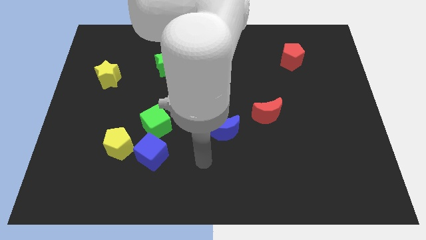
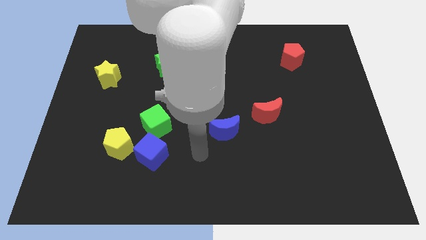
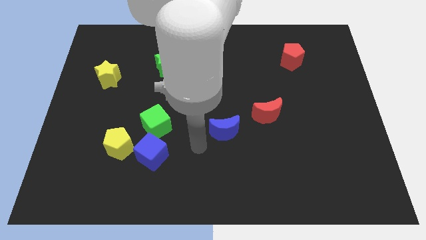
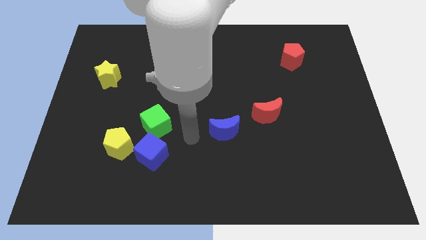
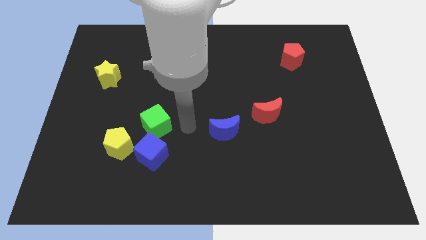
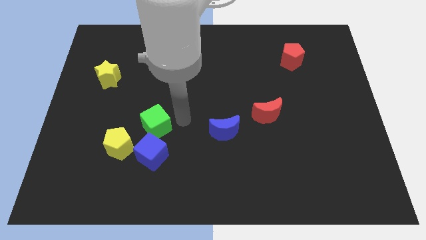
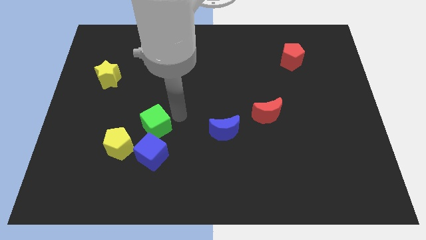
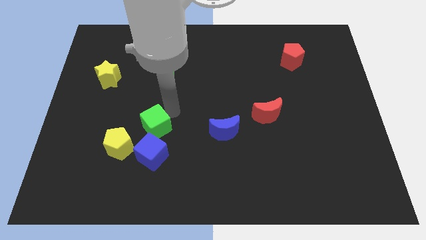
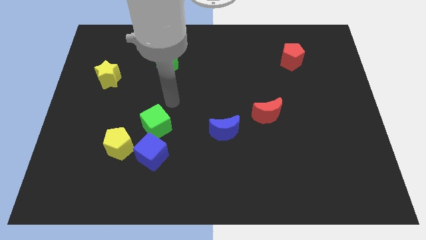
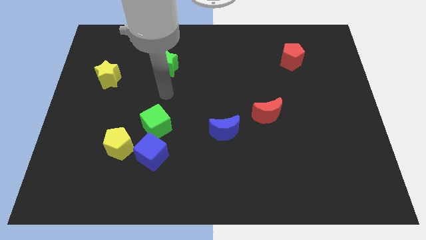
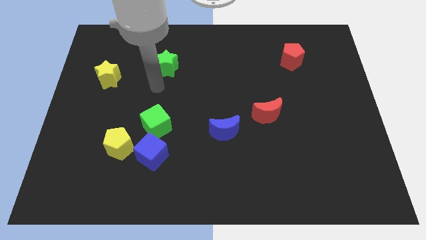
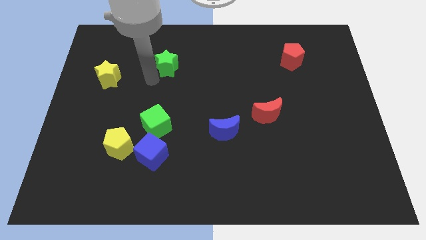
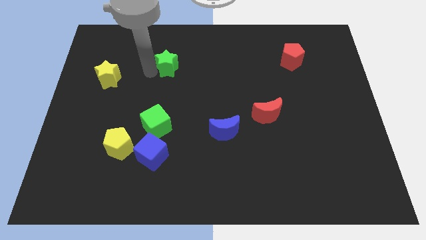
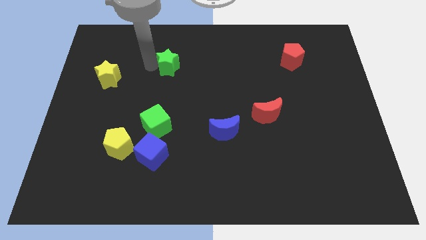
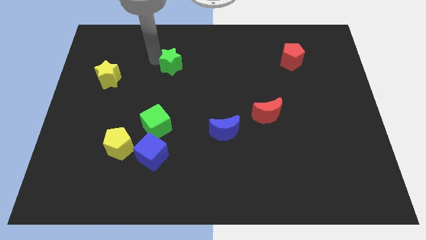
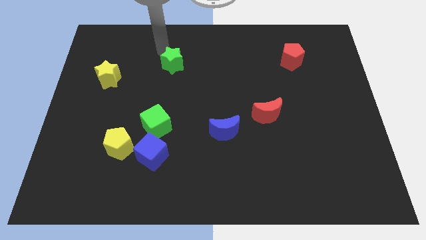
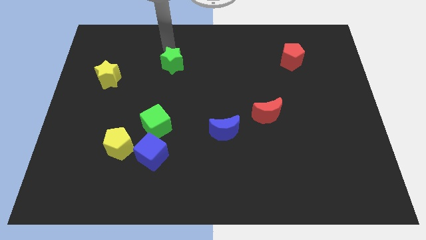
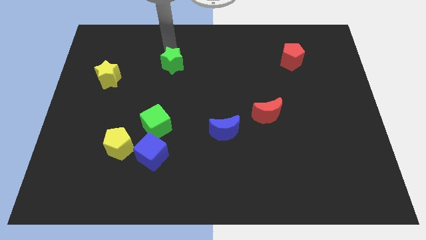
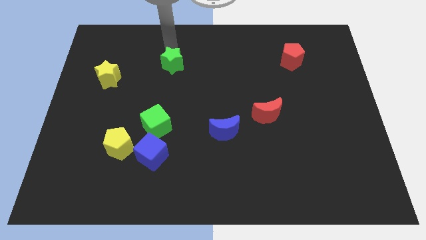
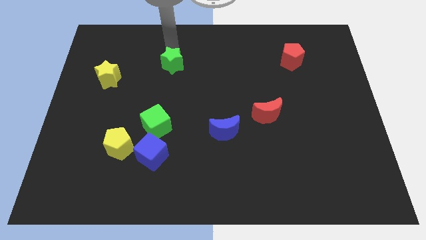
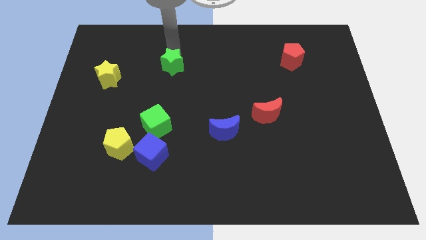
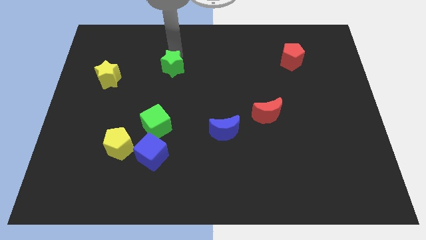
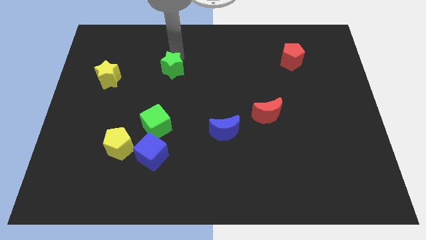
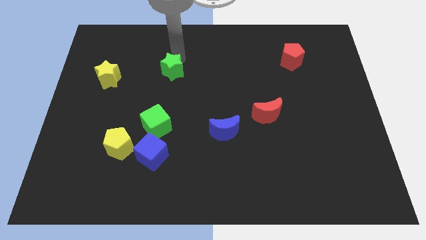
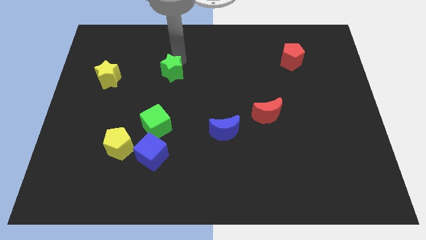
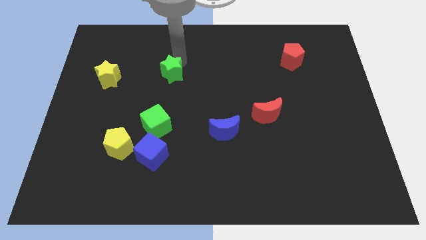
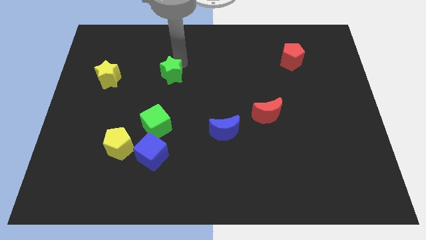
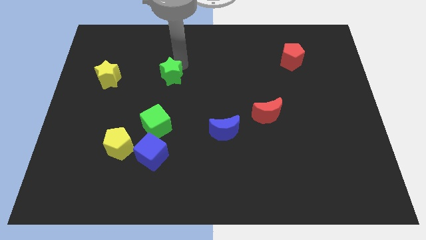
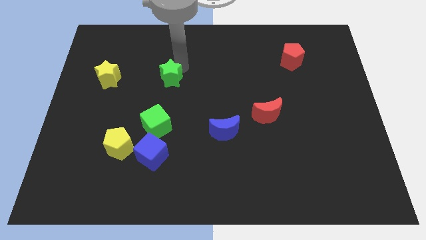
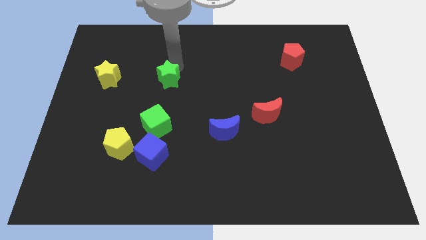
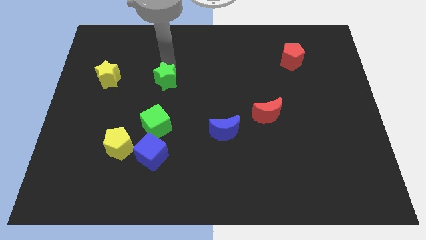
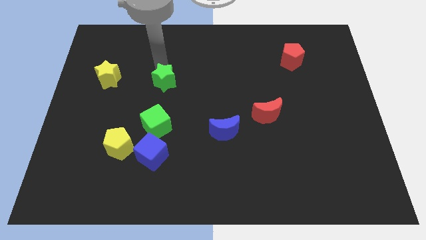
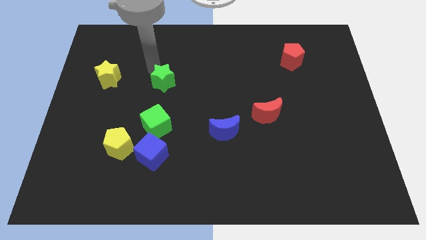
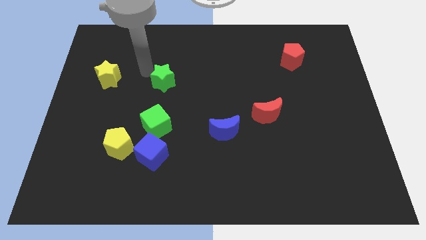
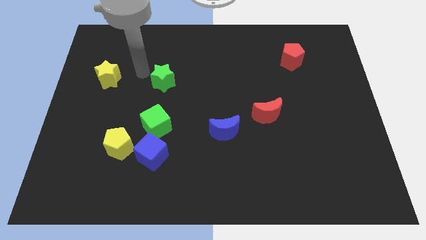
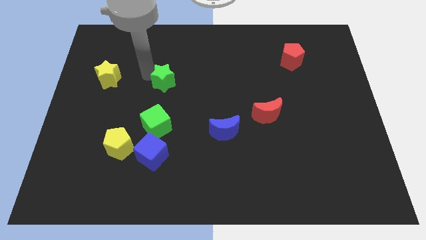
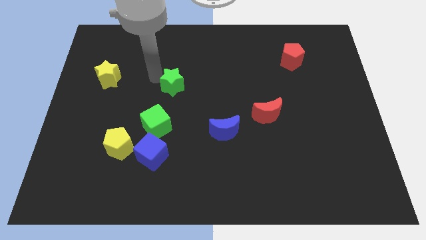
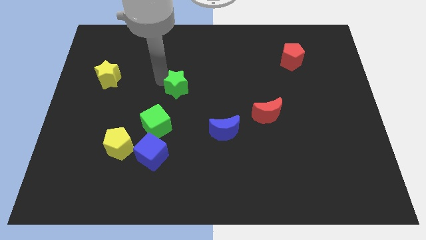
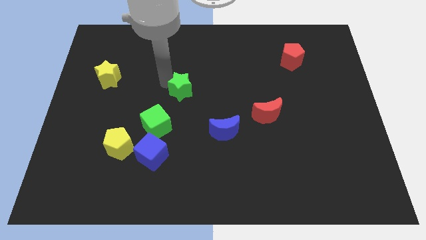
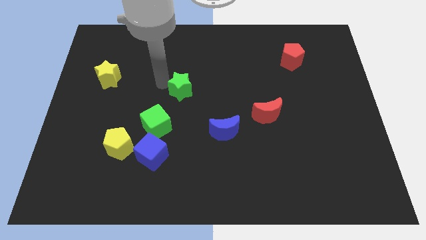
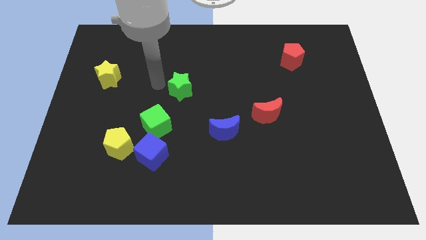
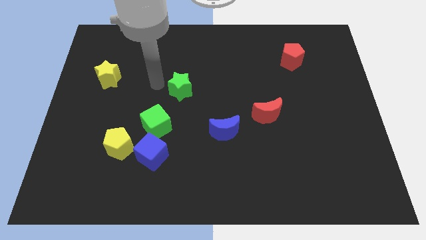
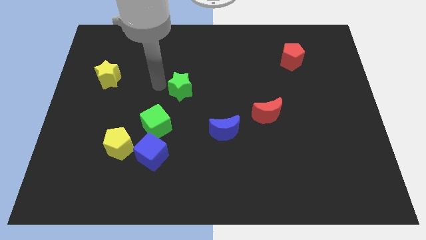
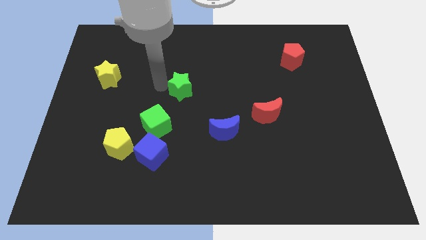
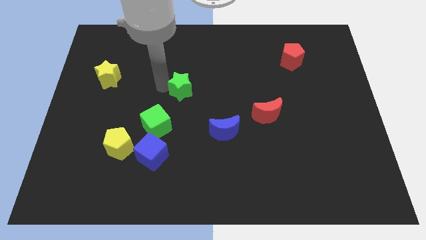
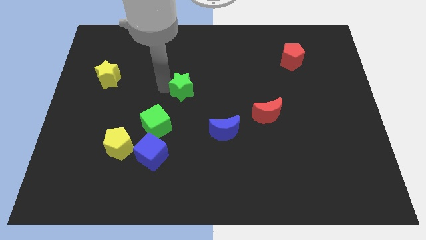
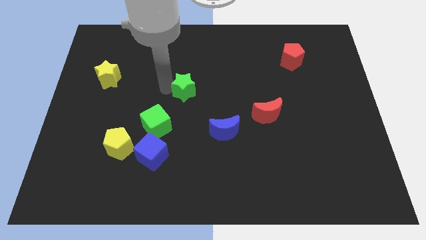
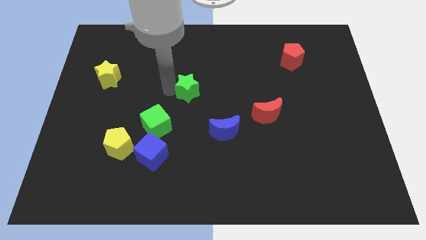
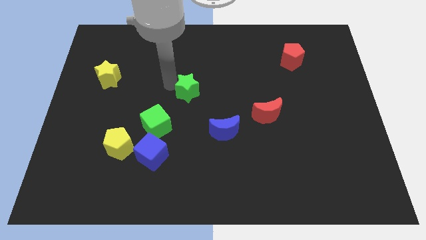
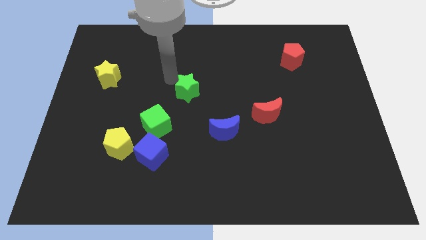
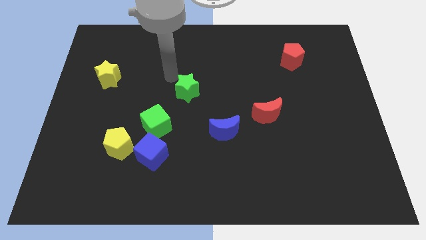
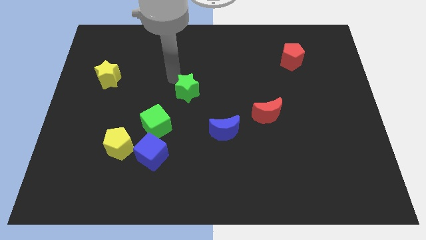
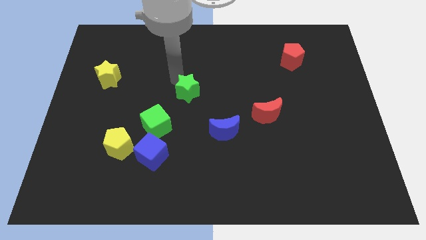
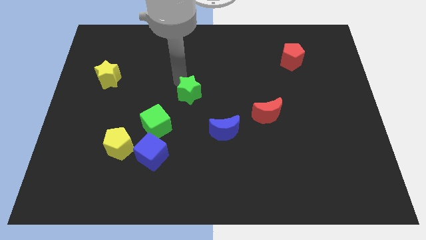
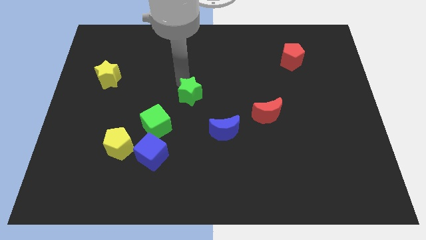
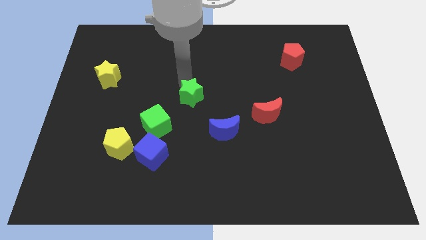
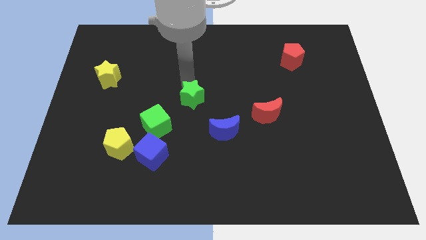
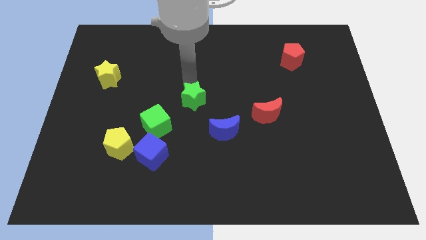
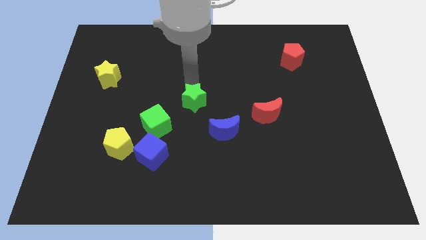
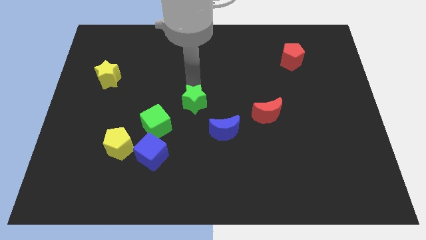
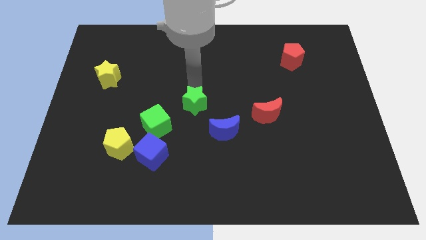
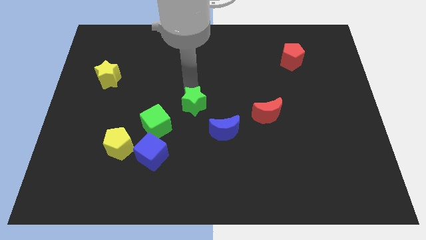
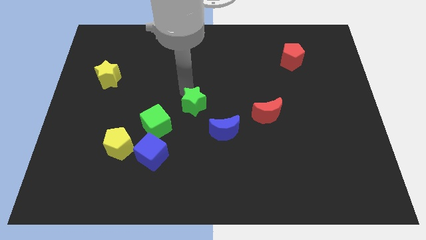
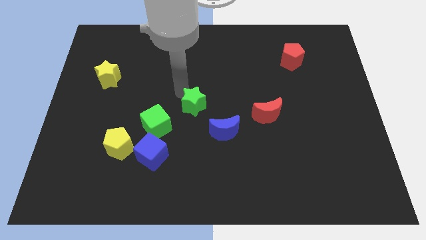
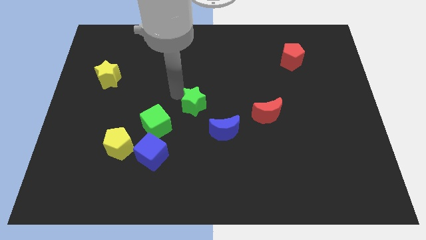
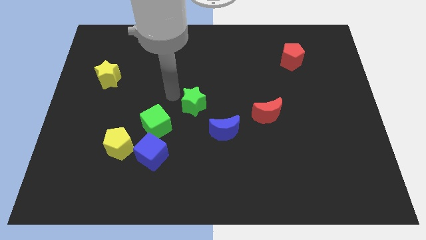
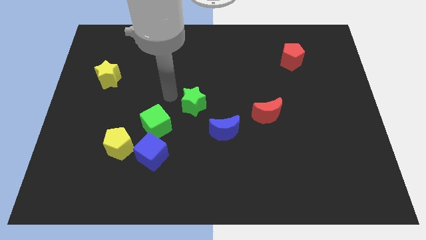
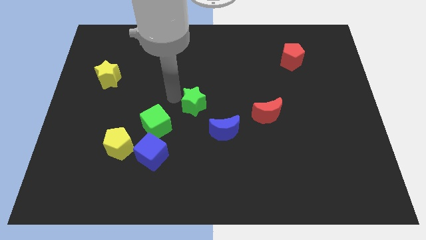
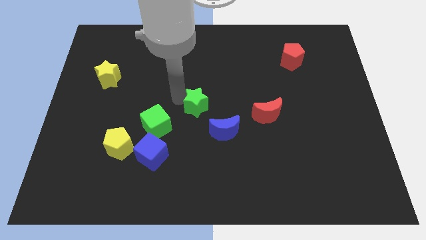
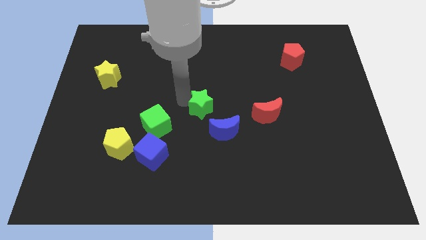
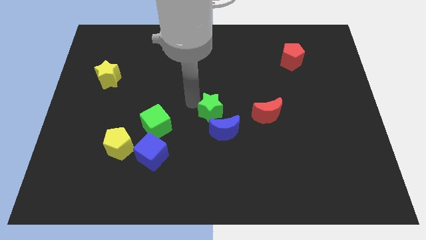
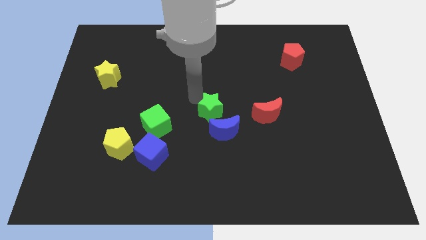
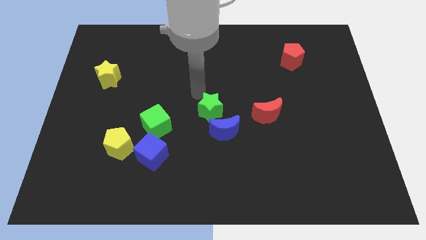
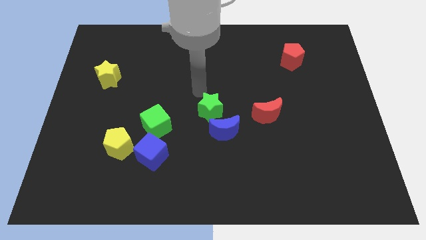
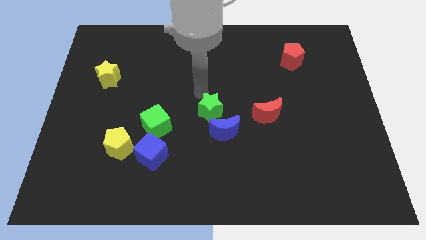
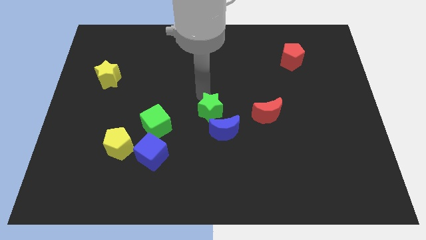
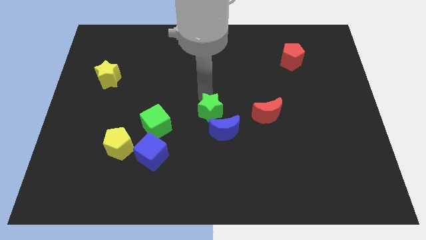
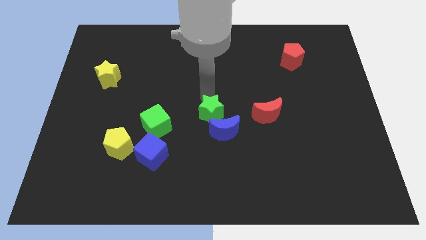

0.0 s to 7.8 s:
slide the green star to the blue moon
